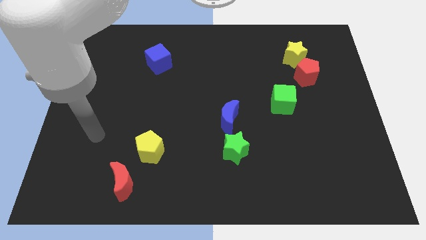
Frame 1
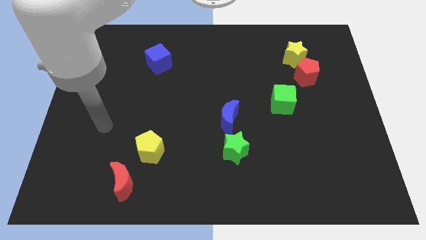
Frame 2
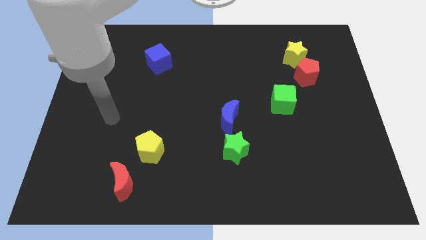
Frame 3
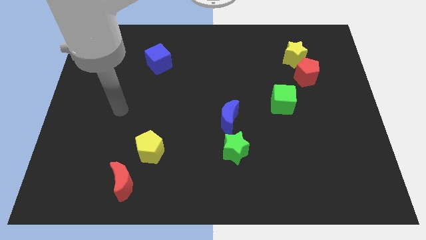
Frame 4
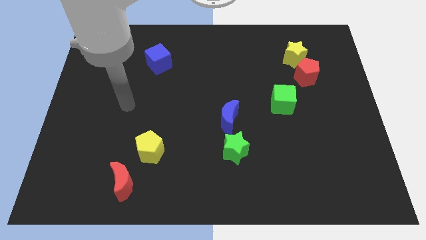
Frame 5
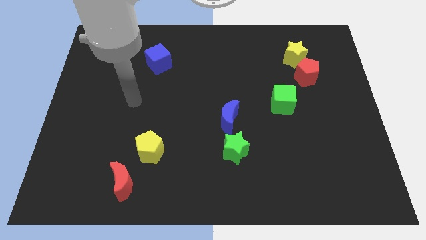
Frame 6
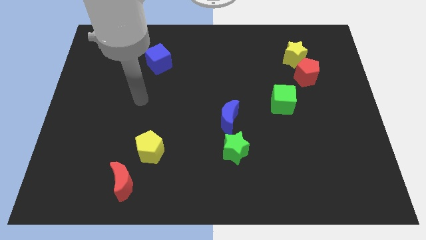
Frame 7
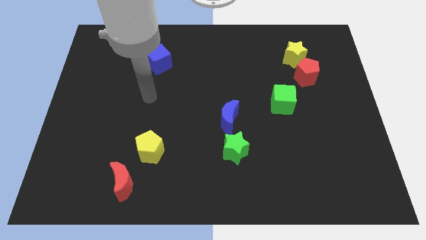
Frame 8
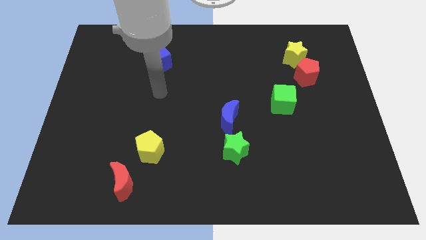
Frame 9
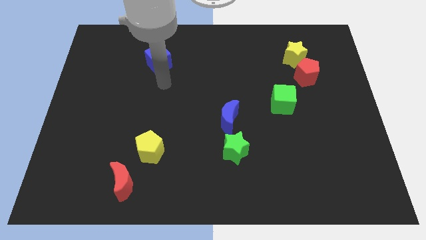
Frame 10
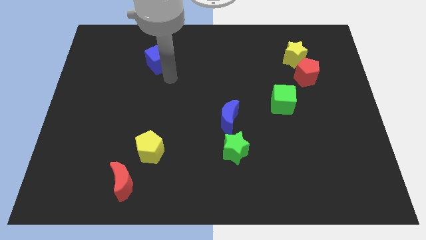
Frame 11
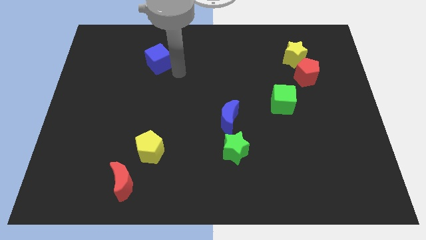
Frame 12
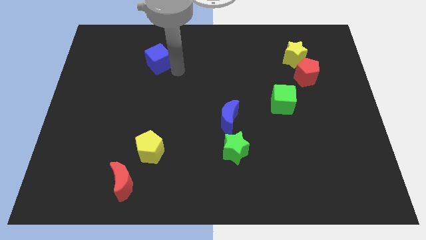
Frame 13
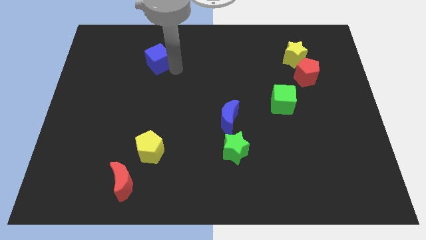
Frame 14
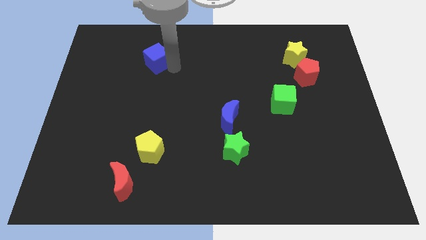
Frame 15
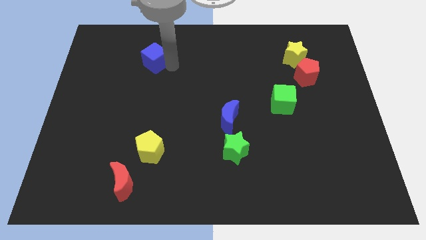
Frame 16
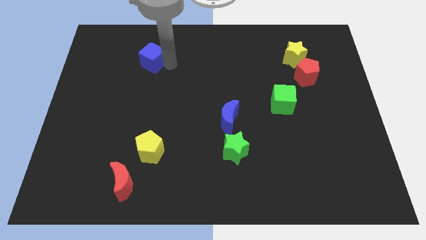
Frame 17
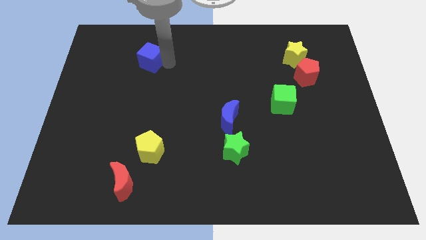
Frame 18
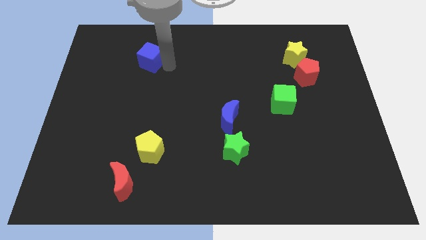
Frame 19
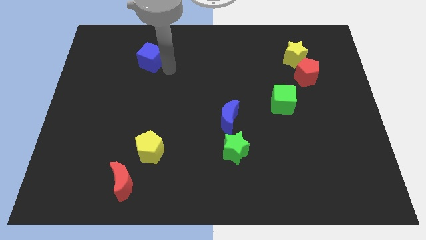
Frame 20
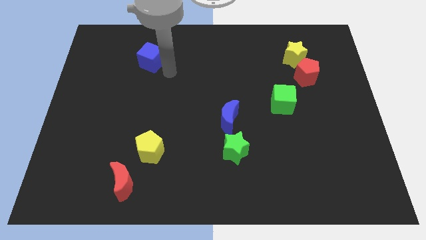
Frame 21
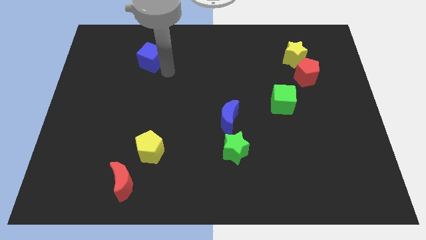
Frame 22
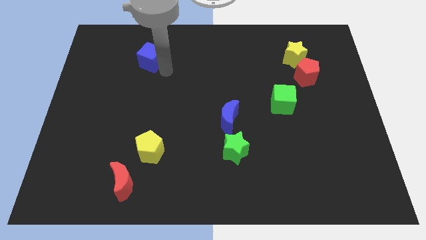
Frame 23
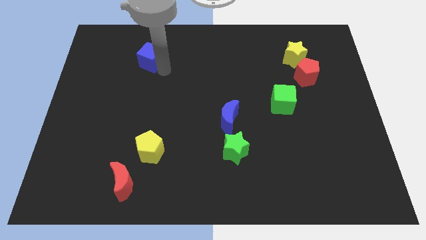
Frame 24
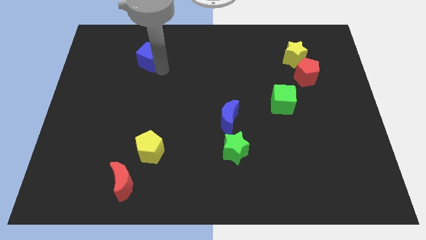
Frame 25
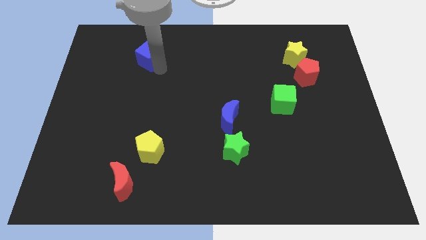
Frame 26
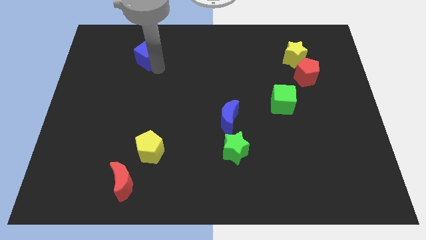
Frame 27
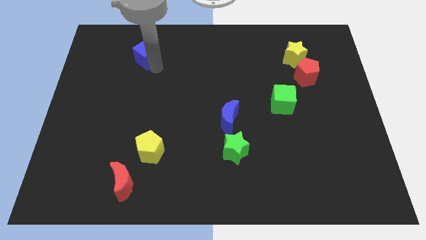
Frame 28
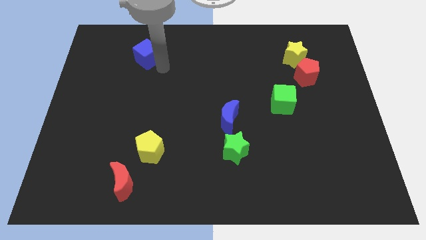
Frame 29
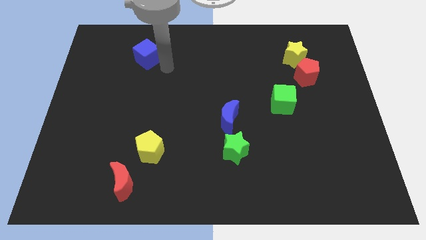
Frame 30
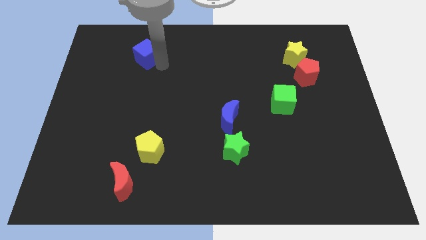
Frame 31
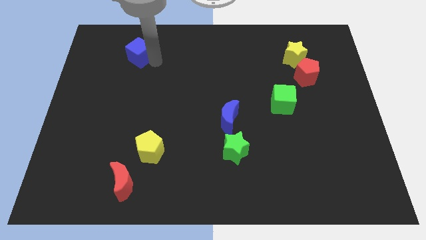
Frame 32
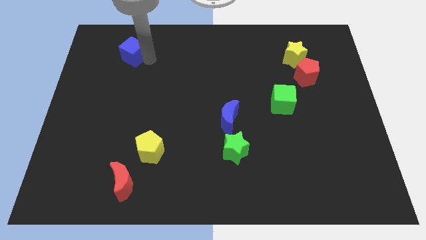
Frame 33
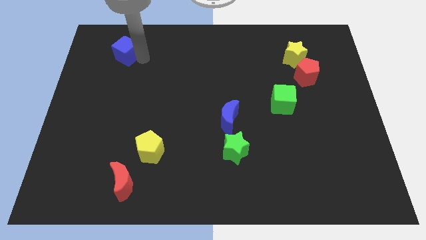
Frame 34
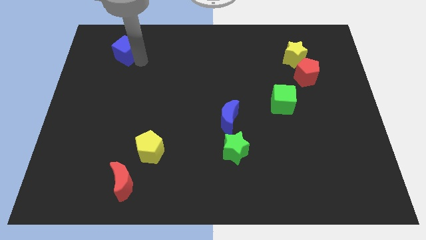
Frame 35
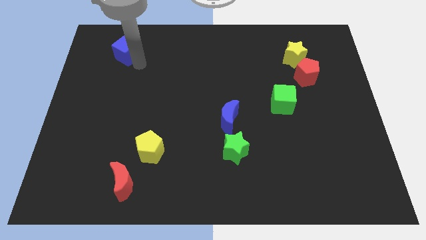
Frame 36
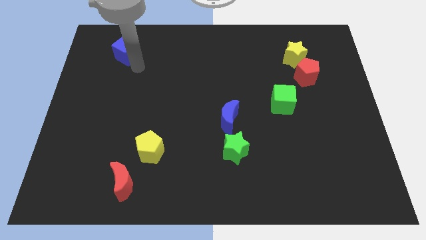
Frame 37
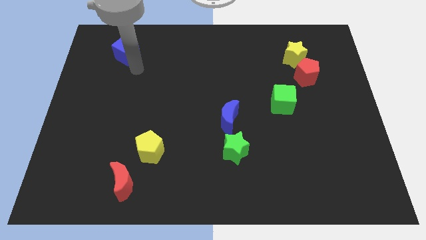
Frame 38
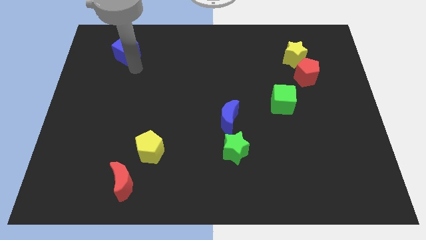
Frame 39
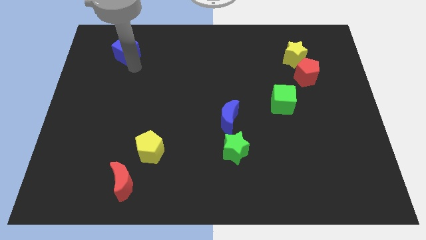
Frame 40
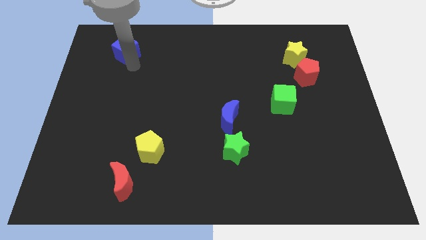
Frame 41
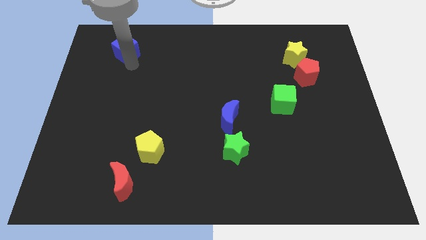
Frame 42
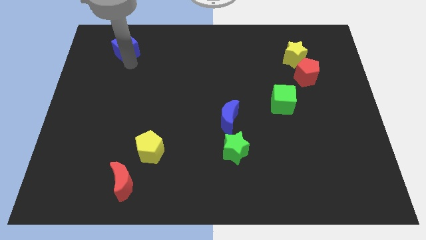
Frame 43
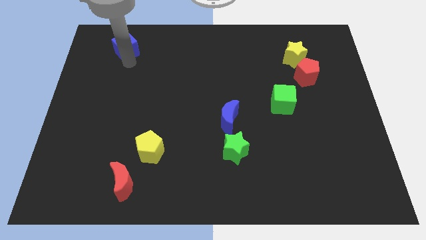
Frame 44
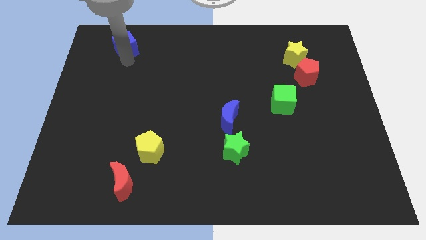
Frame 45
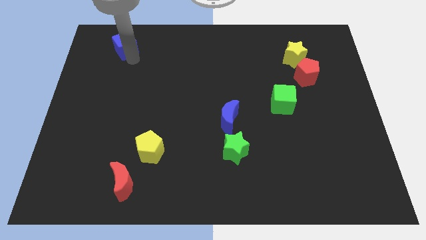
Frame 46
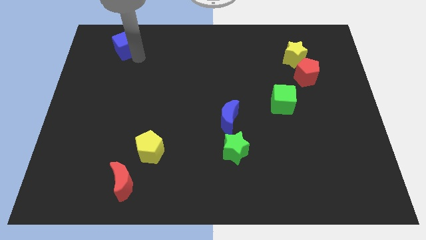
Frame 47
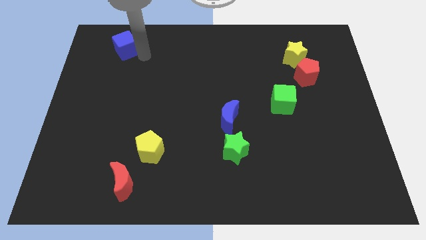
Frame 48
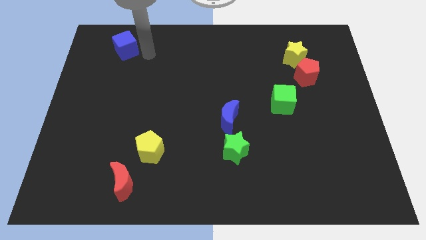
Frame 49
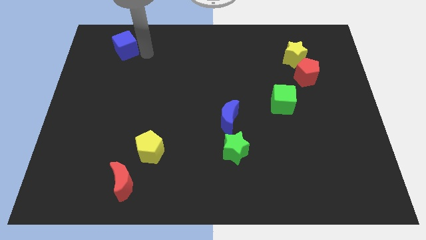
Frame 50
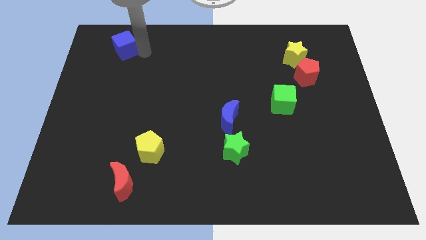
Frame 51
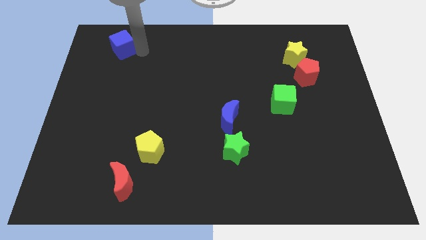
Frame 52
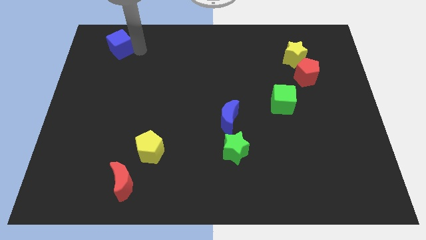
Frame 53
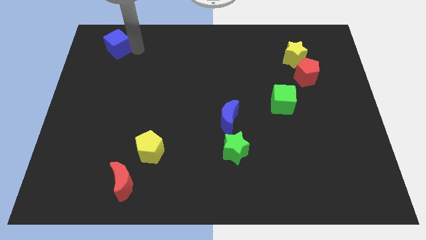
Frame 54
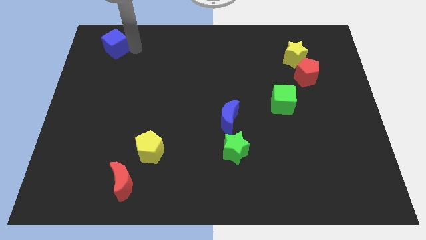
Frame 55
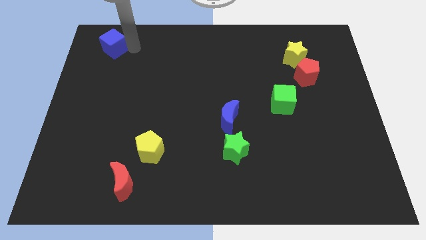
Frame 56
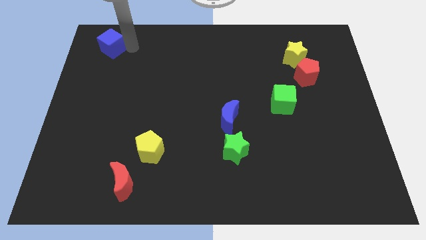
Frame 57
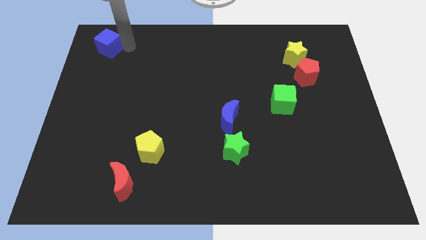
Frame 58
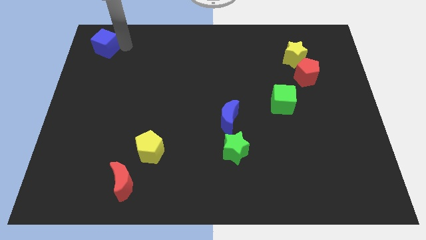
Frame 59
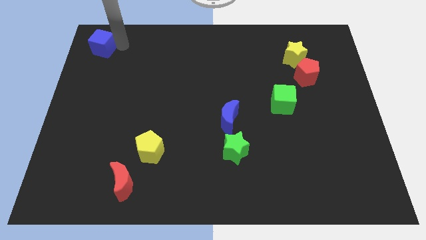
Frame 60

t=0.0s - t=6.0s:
put the blue cube to the top left
